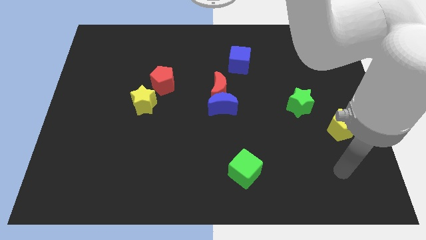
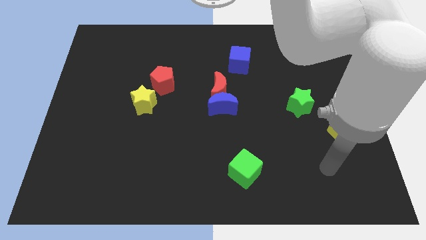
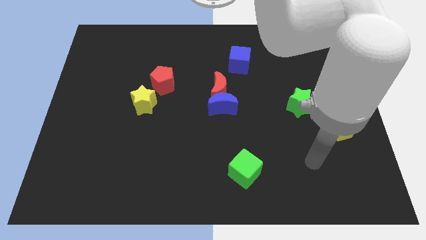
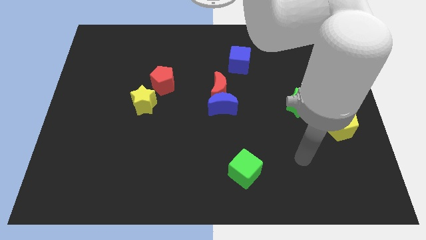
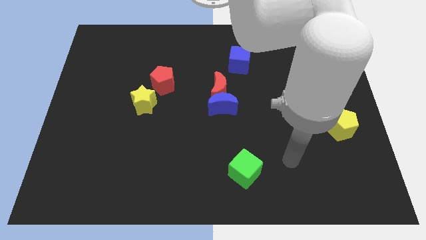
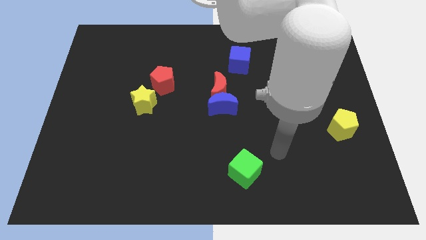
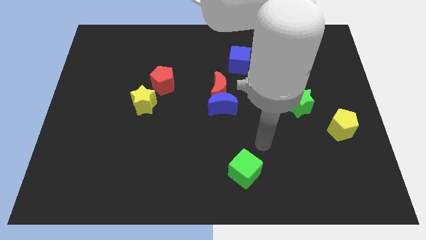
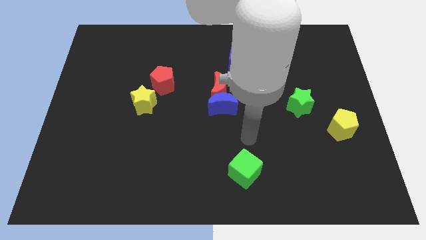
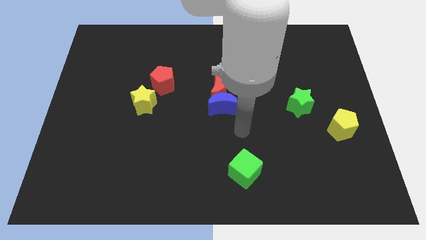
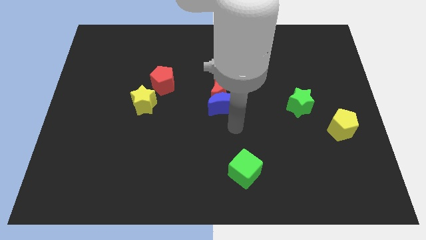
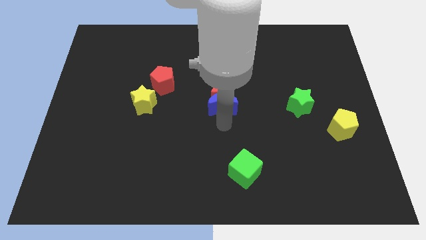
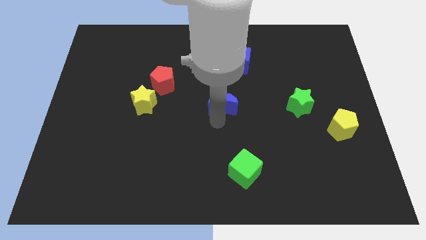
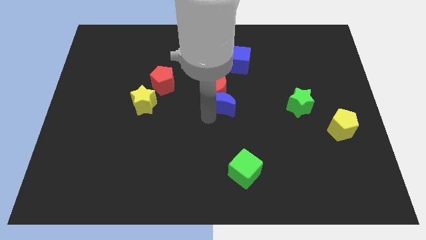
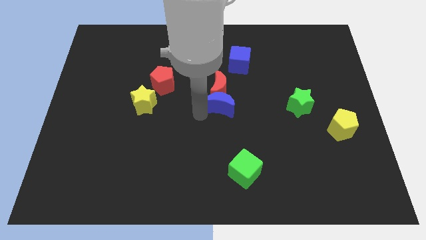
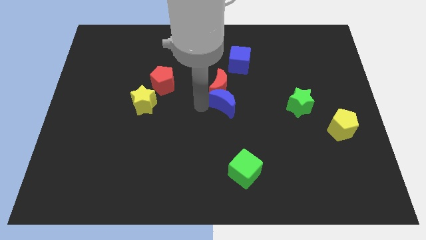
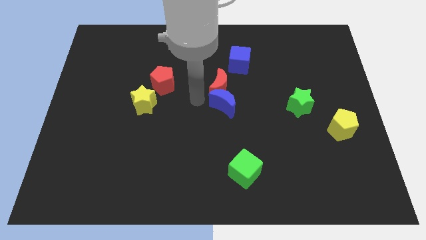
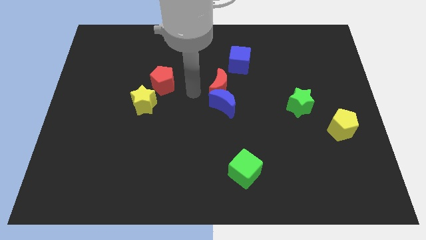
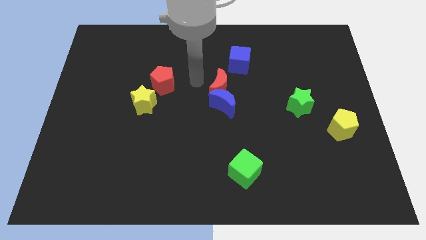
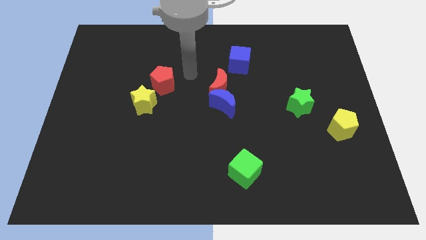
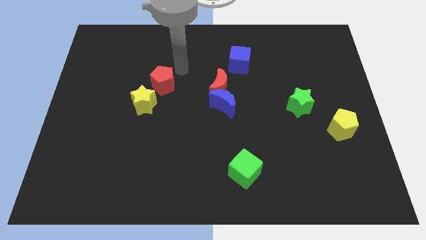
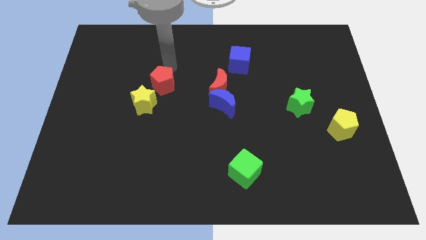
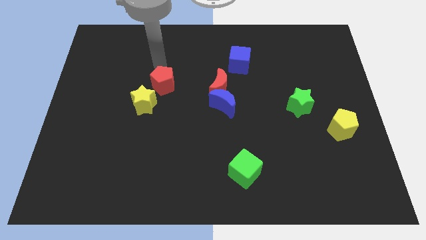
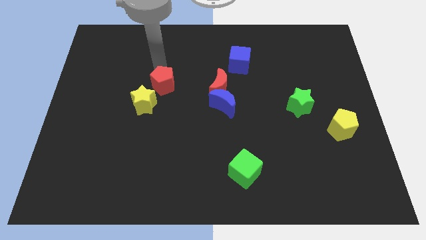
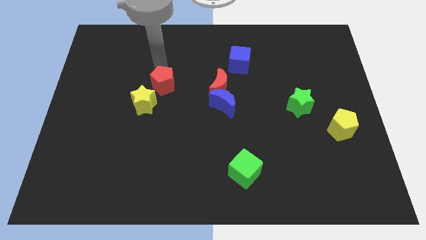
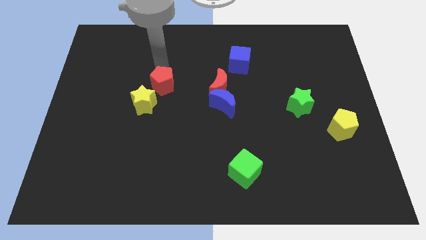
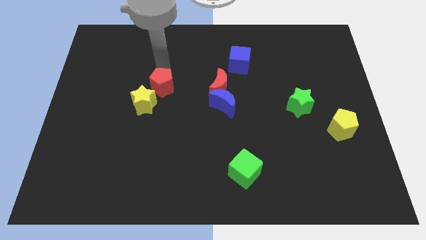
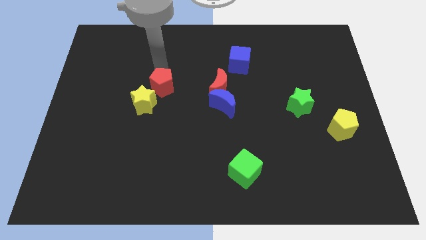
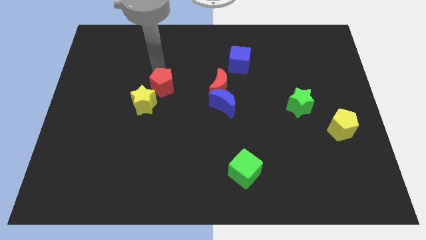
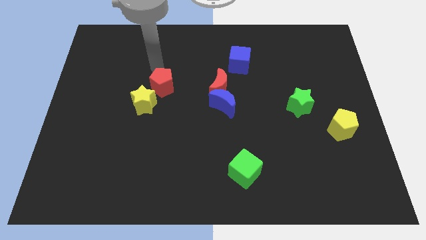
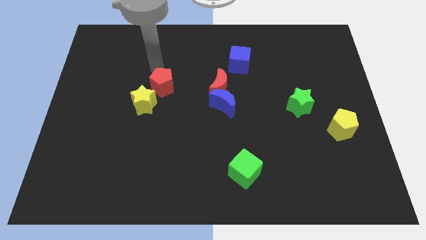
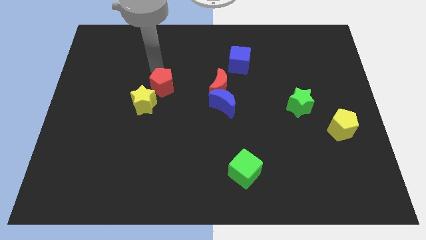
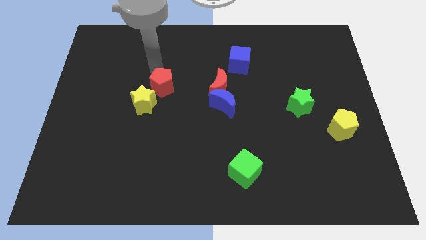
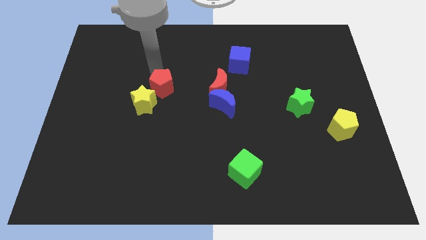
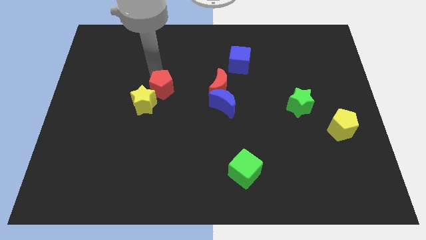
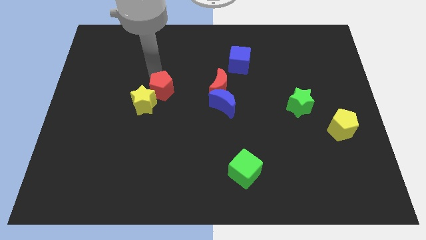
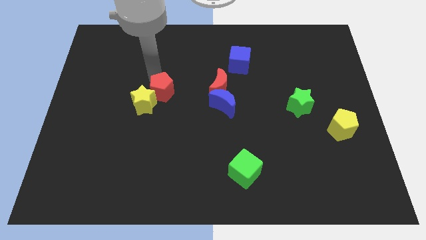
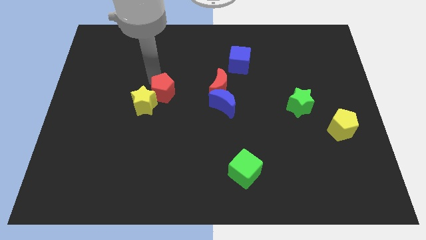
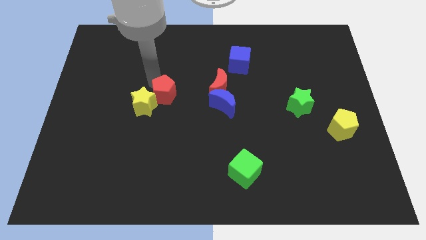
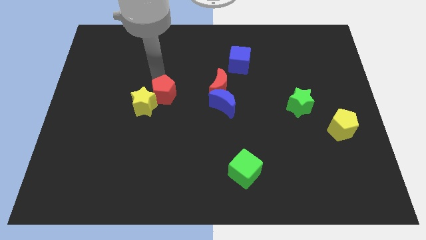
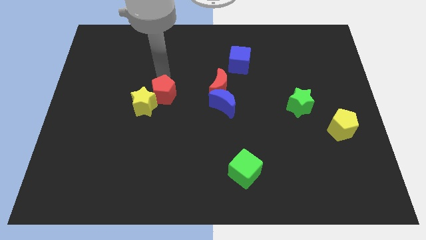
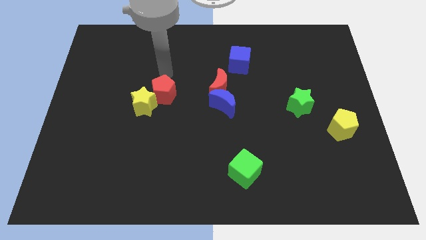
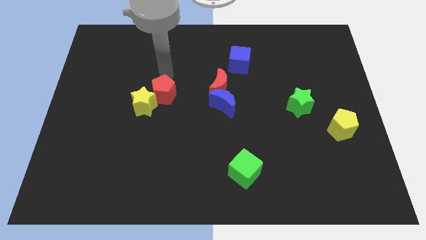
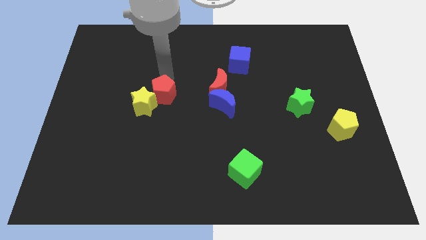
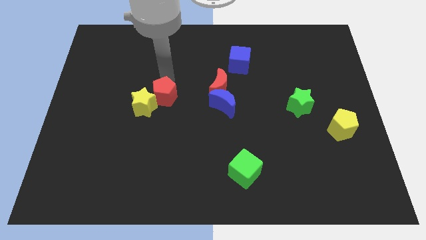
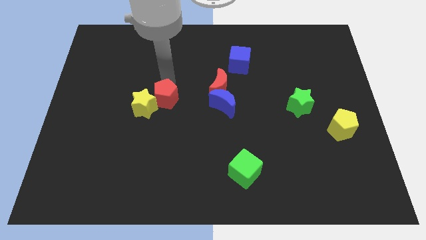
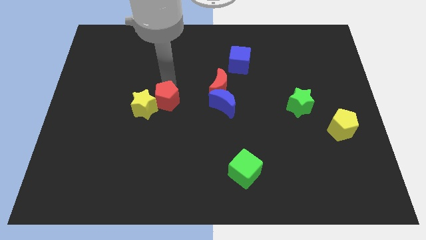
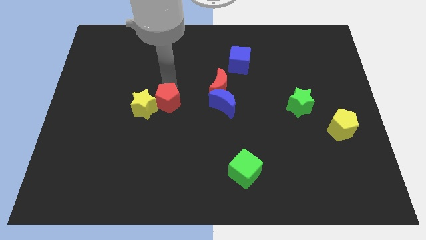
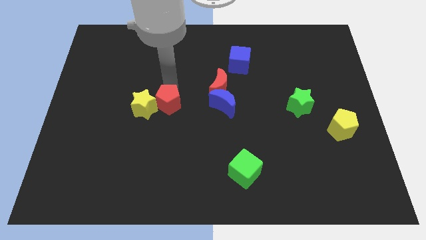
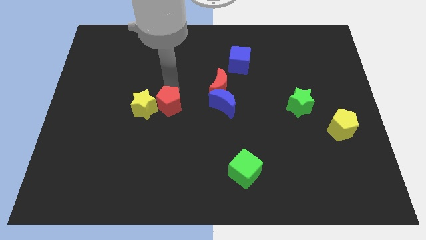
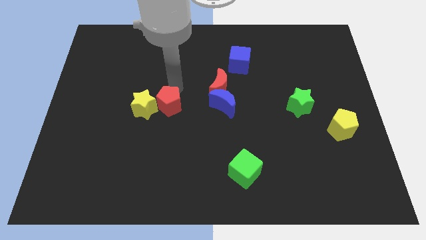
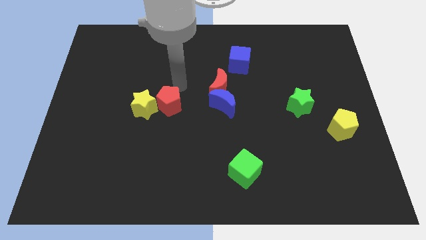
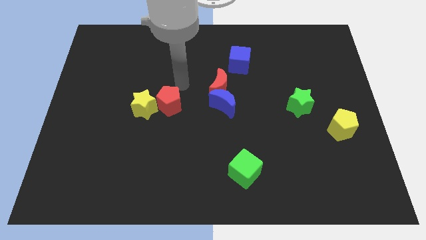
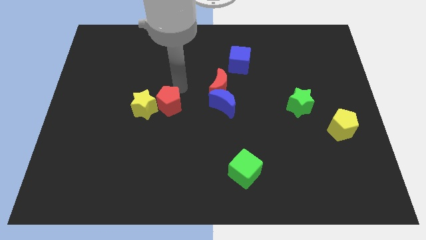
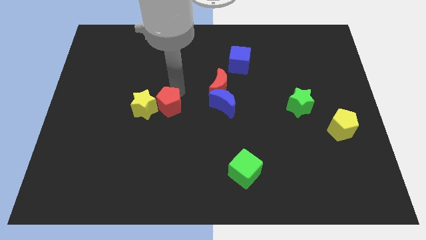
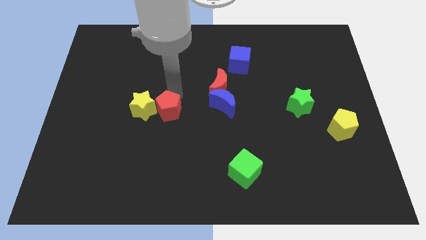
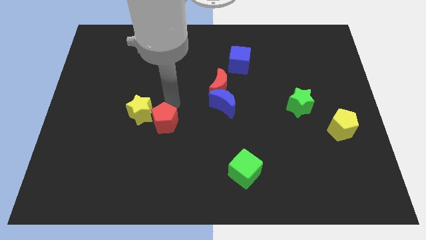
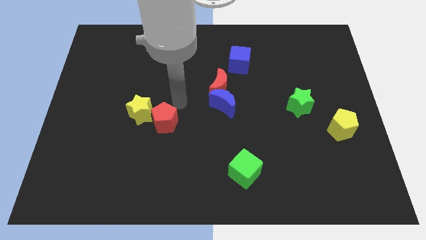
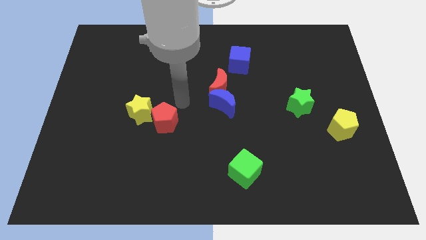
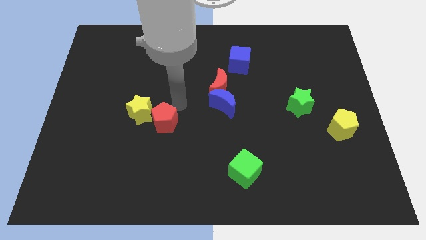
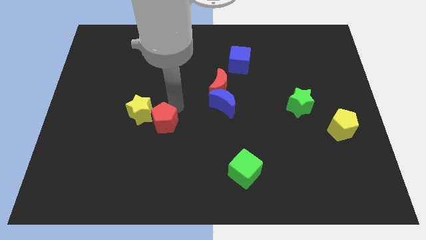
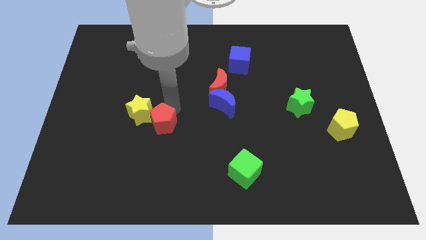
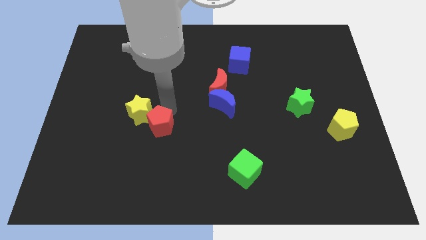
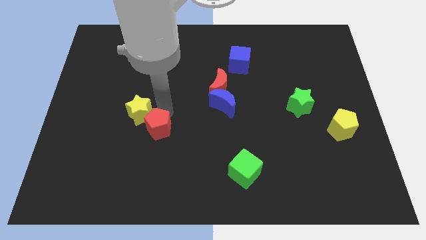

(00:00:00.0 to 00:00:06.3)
move the red pentagon below the yellow star
